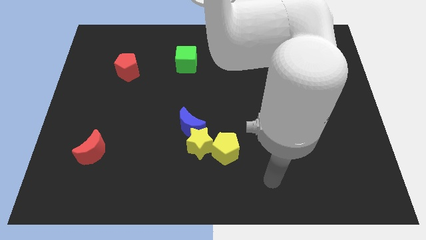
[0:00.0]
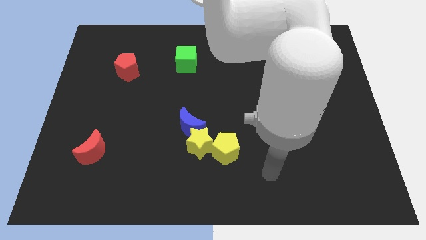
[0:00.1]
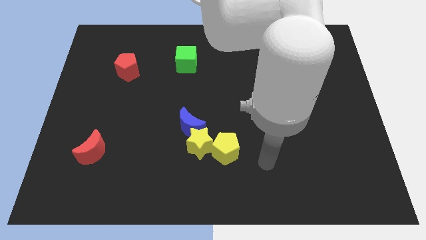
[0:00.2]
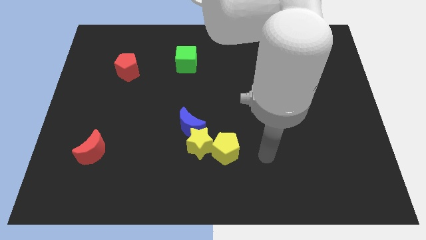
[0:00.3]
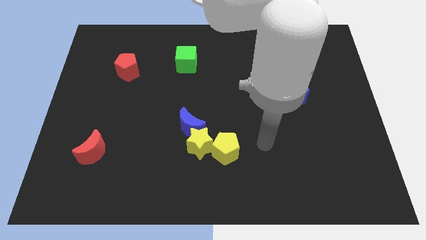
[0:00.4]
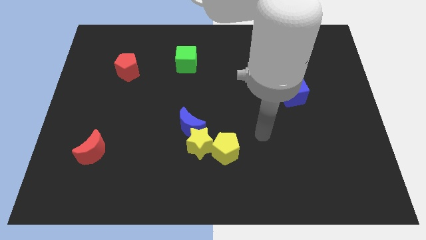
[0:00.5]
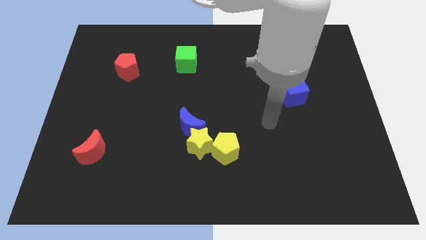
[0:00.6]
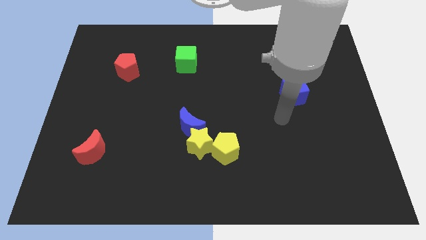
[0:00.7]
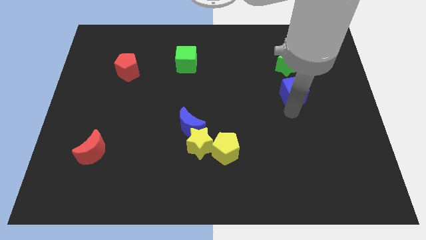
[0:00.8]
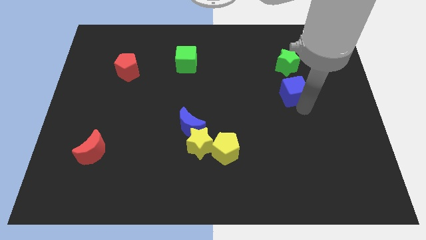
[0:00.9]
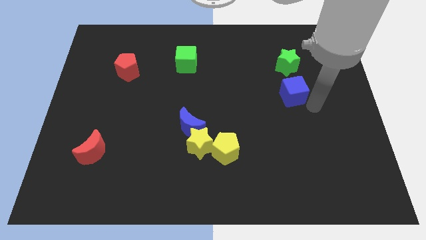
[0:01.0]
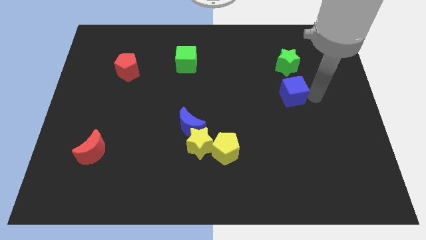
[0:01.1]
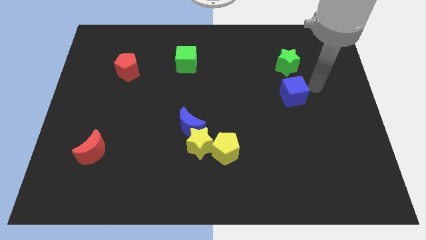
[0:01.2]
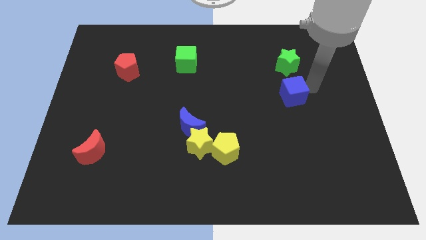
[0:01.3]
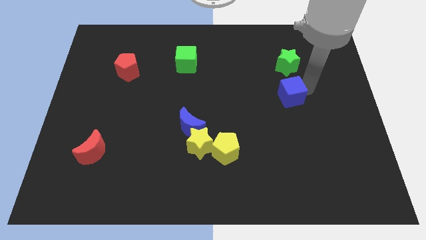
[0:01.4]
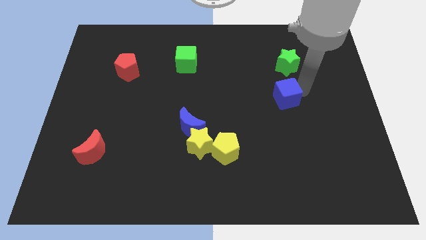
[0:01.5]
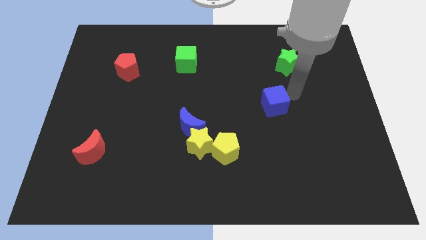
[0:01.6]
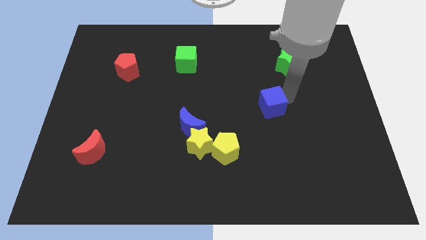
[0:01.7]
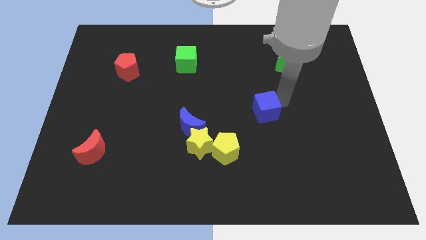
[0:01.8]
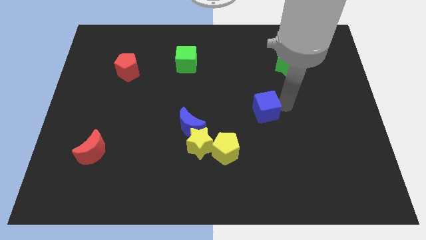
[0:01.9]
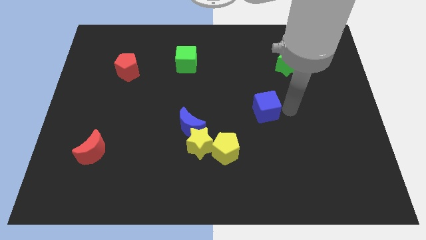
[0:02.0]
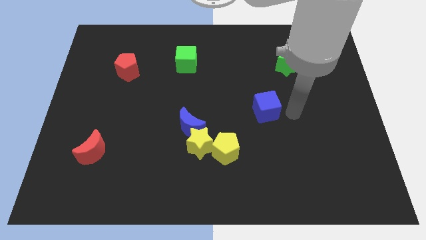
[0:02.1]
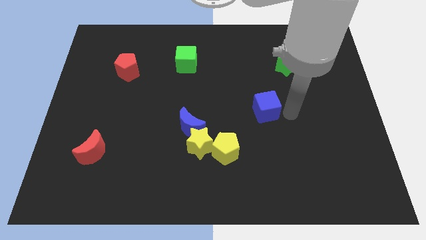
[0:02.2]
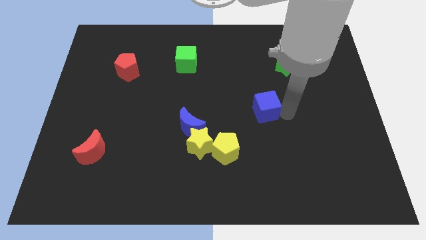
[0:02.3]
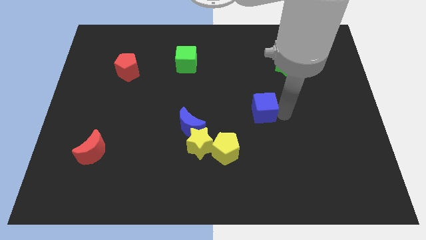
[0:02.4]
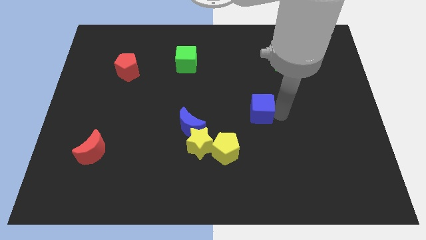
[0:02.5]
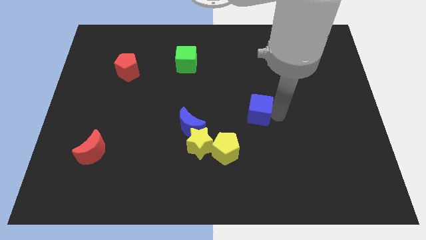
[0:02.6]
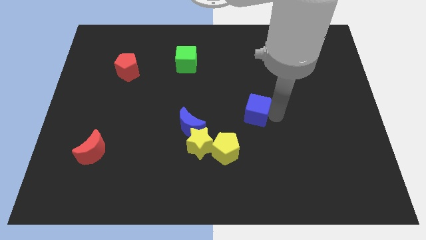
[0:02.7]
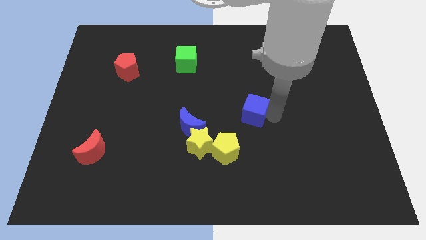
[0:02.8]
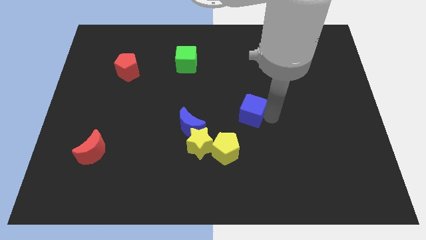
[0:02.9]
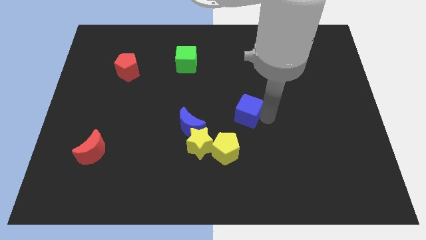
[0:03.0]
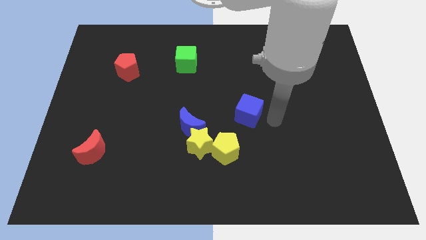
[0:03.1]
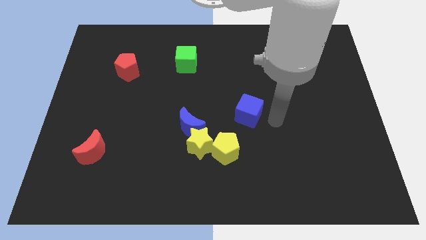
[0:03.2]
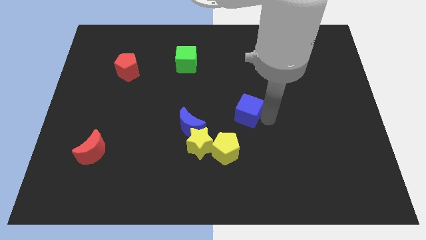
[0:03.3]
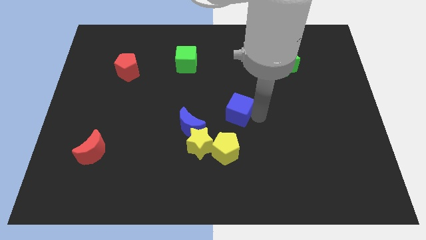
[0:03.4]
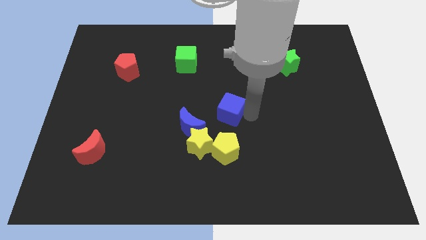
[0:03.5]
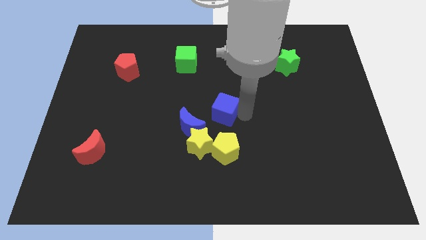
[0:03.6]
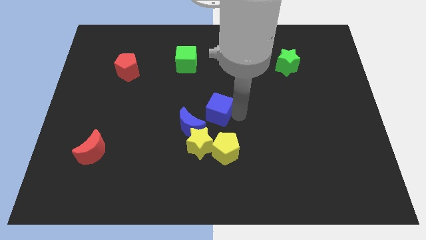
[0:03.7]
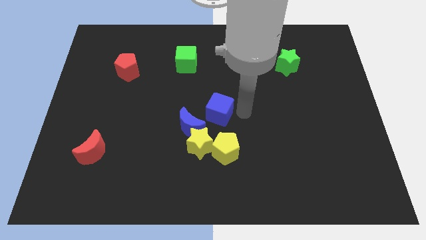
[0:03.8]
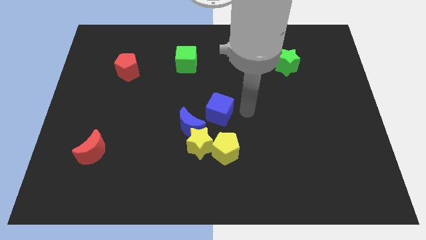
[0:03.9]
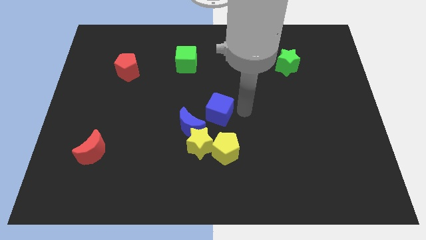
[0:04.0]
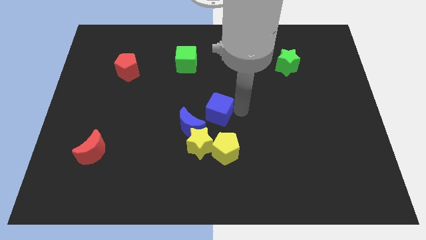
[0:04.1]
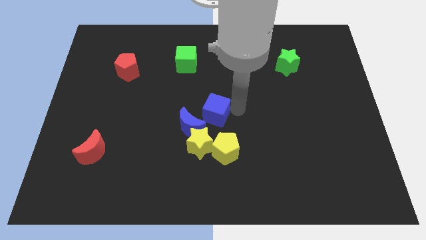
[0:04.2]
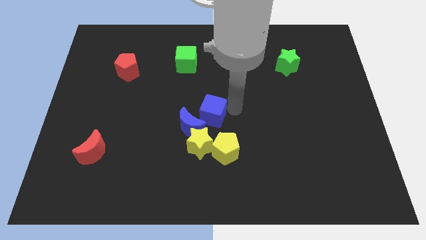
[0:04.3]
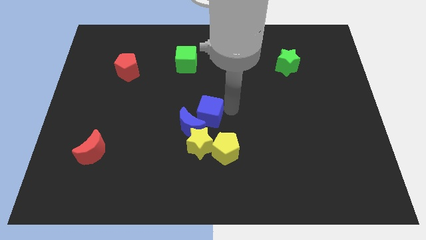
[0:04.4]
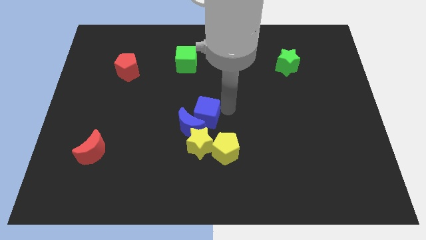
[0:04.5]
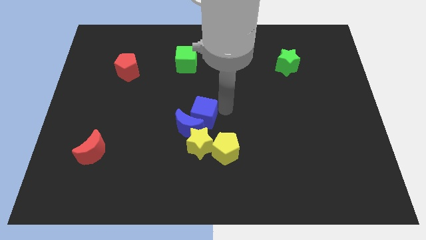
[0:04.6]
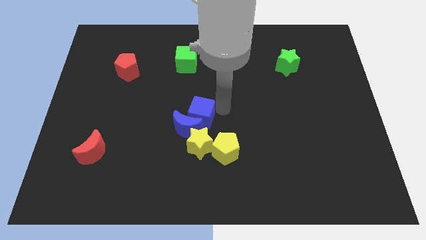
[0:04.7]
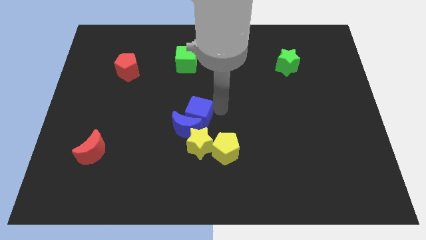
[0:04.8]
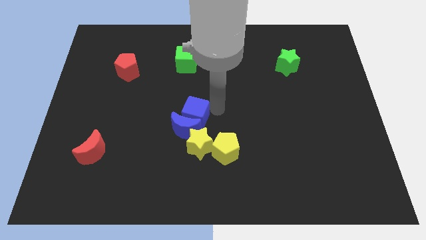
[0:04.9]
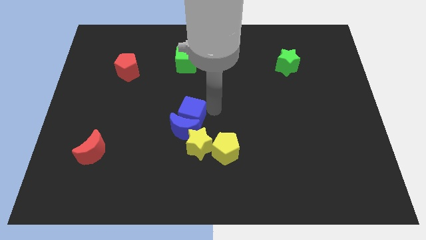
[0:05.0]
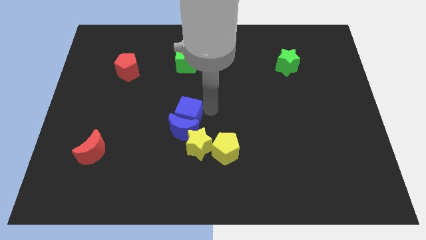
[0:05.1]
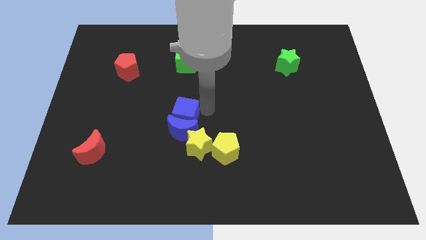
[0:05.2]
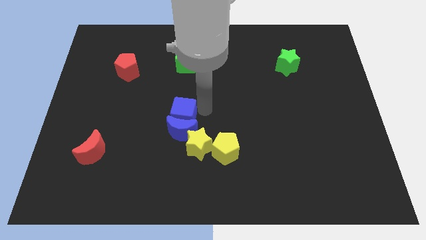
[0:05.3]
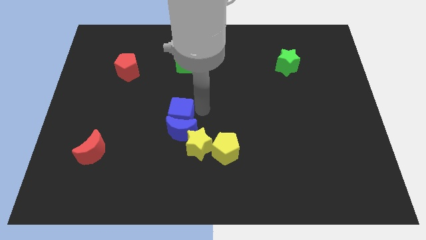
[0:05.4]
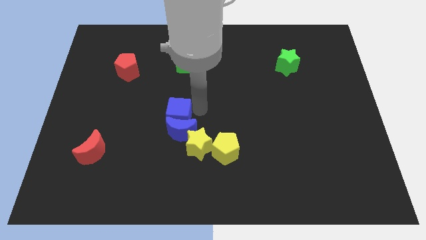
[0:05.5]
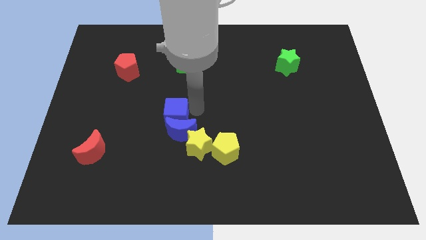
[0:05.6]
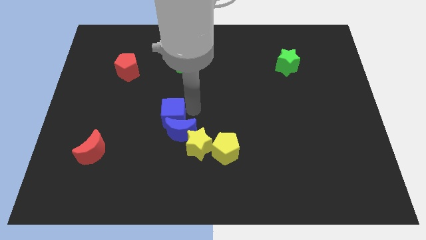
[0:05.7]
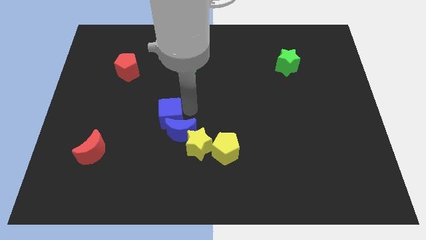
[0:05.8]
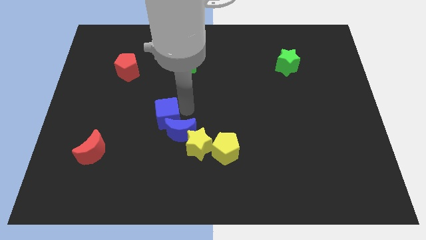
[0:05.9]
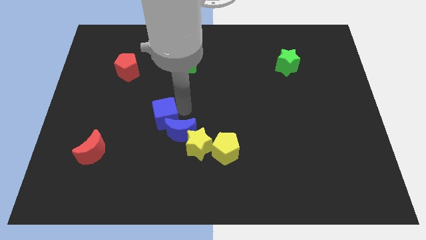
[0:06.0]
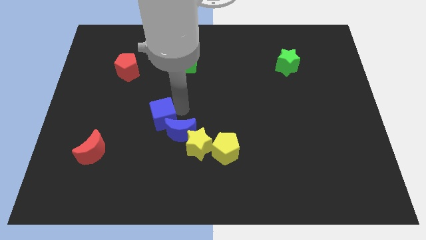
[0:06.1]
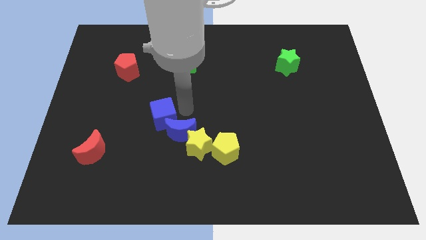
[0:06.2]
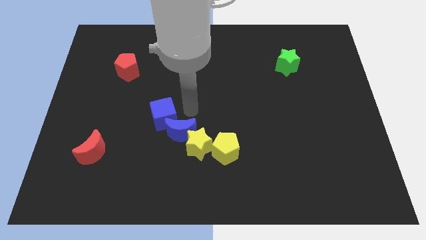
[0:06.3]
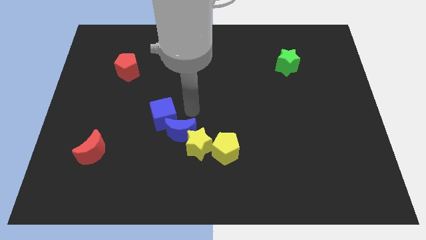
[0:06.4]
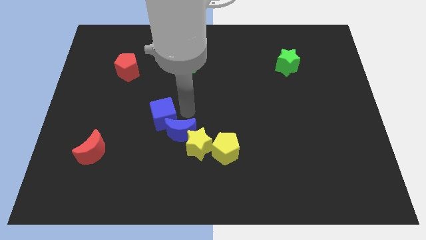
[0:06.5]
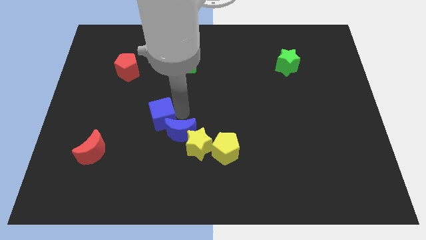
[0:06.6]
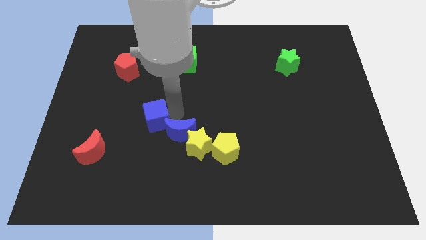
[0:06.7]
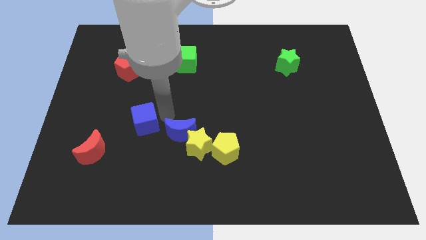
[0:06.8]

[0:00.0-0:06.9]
move the blue cube diagonally up and to the right of the red moon
